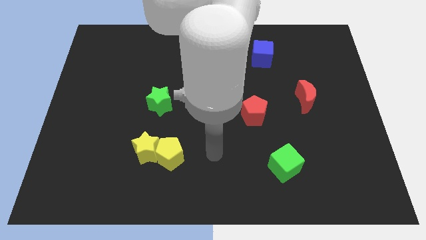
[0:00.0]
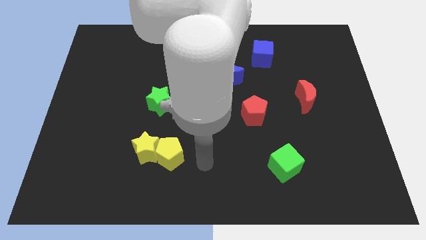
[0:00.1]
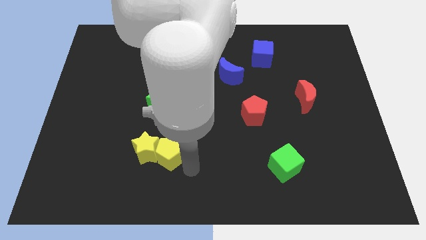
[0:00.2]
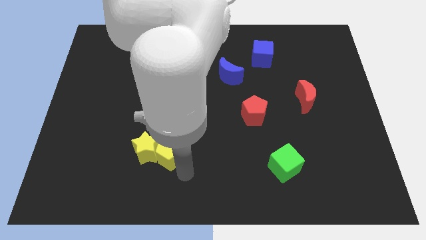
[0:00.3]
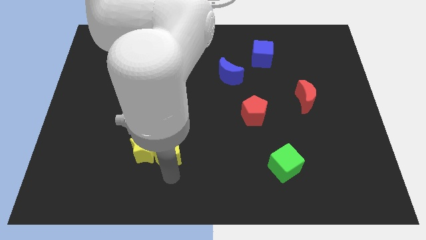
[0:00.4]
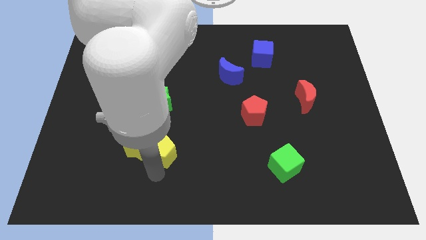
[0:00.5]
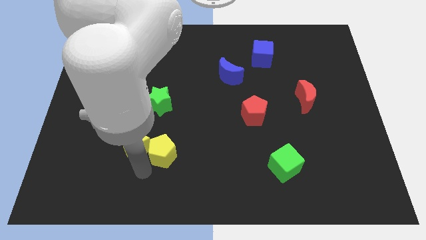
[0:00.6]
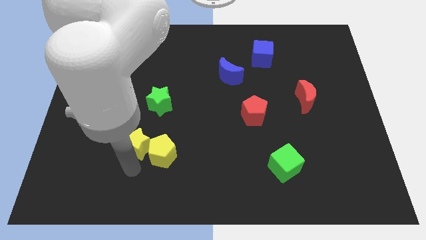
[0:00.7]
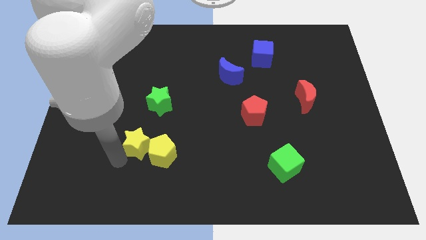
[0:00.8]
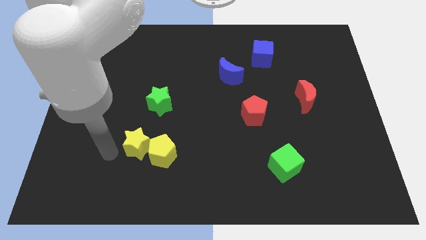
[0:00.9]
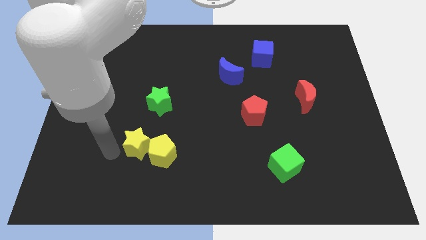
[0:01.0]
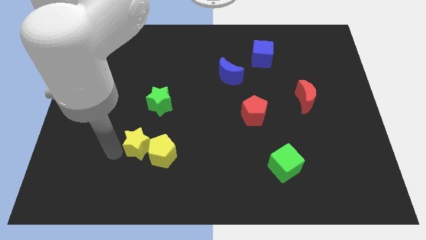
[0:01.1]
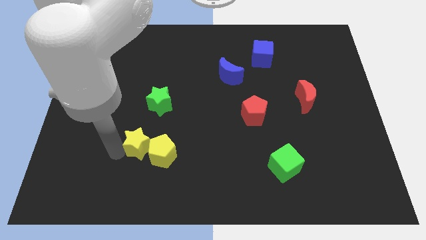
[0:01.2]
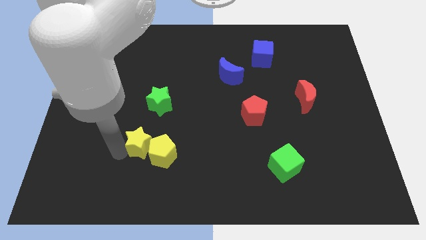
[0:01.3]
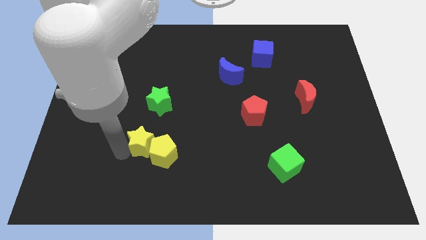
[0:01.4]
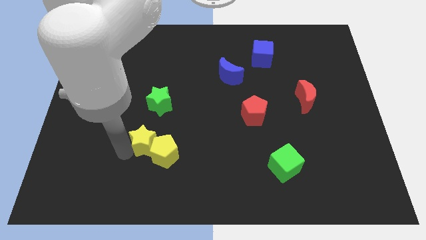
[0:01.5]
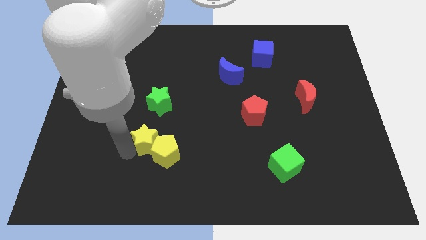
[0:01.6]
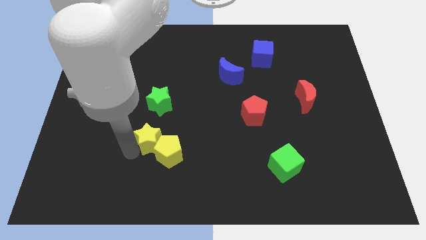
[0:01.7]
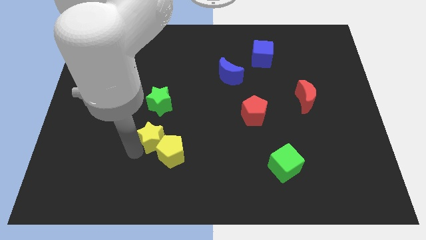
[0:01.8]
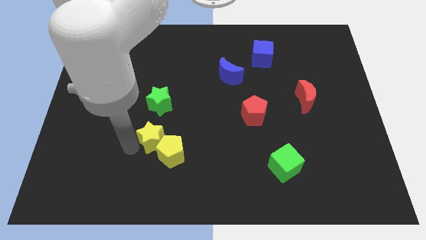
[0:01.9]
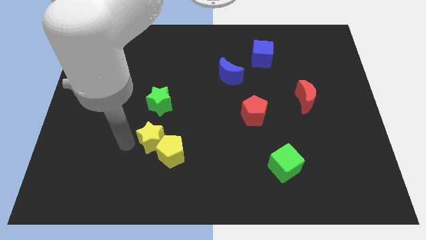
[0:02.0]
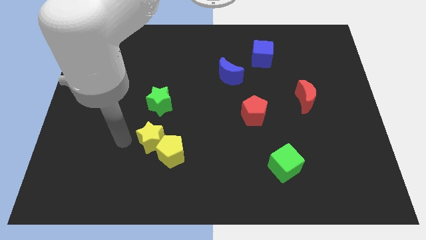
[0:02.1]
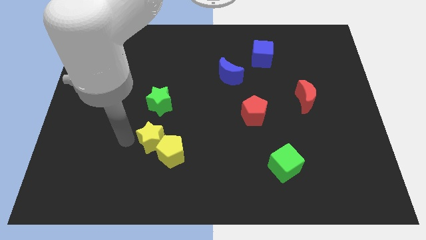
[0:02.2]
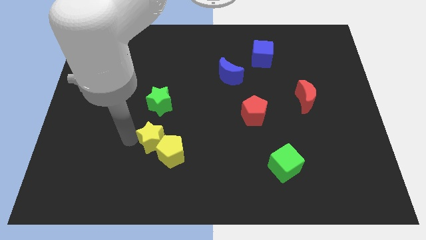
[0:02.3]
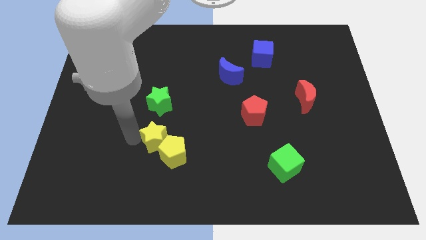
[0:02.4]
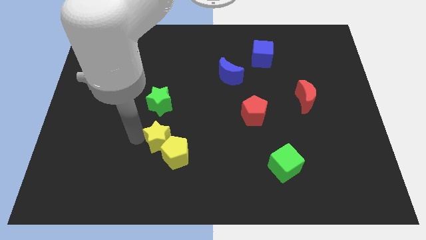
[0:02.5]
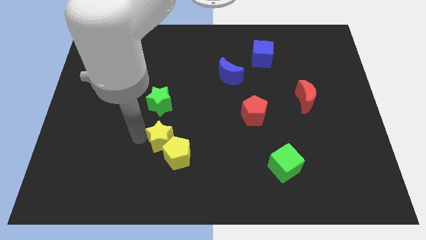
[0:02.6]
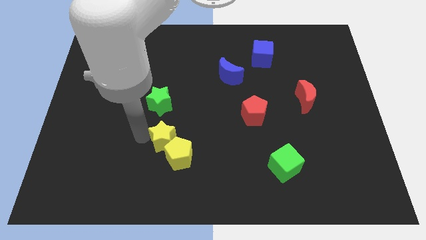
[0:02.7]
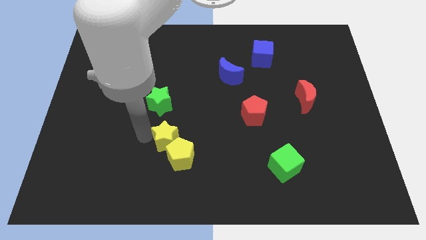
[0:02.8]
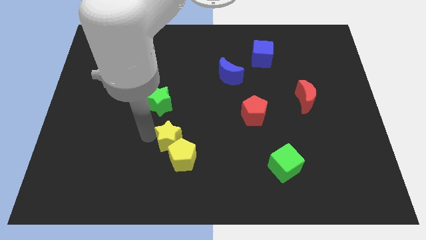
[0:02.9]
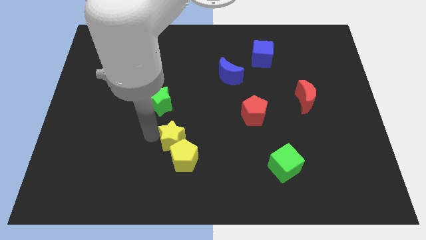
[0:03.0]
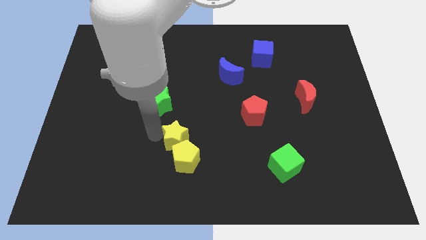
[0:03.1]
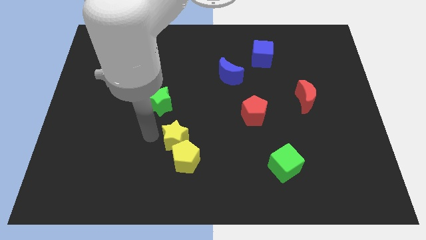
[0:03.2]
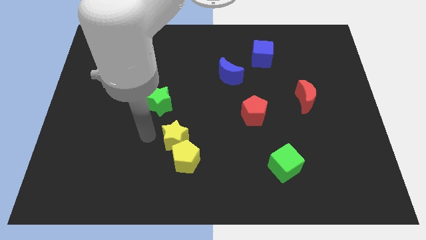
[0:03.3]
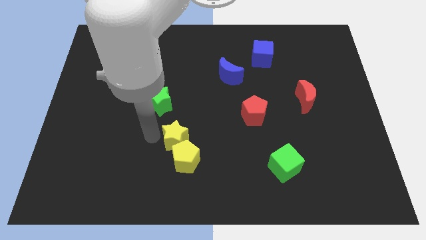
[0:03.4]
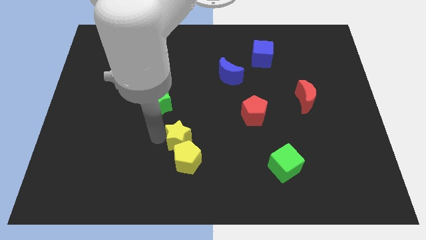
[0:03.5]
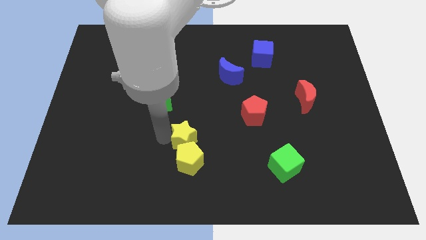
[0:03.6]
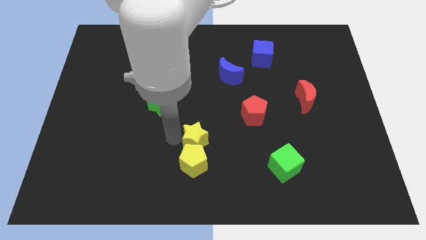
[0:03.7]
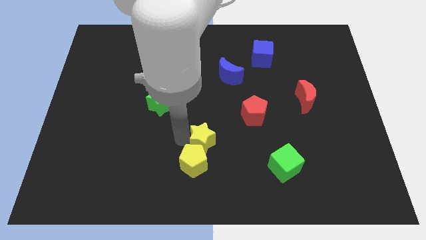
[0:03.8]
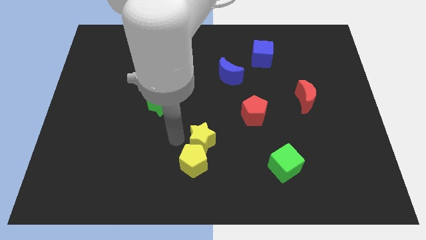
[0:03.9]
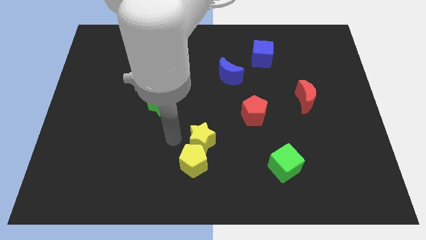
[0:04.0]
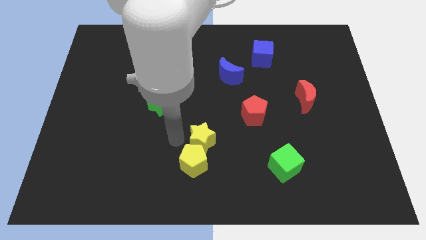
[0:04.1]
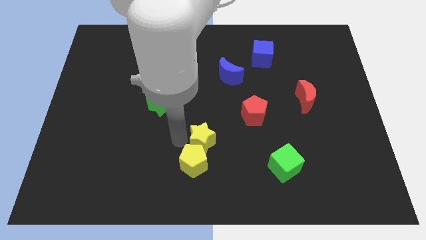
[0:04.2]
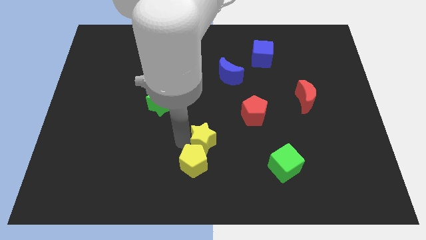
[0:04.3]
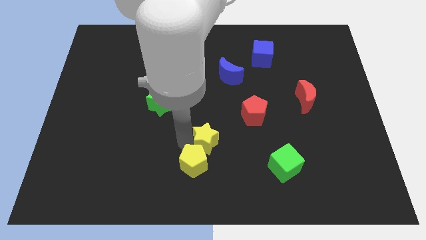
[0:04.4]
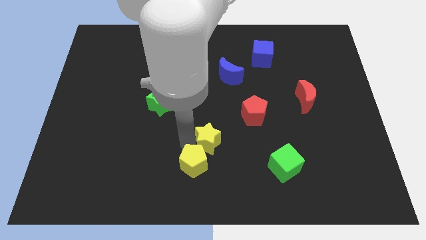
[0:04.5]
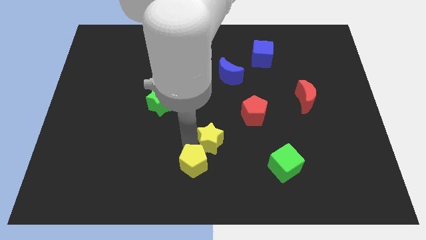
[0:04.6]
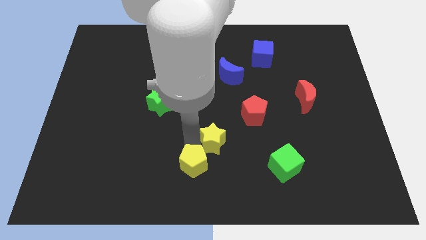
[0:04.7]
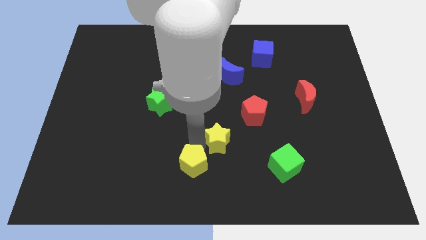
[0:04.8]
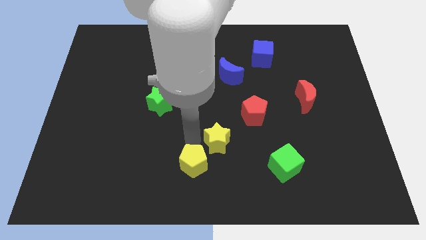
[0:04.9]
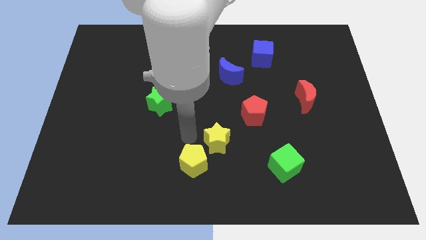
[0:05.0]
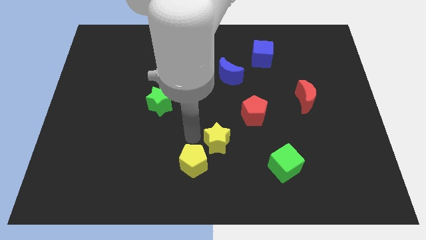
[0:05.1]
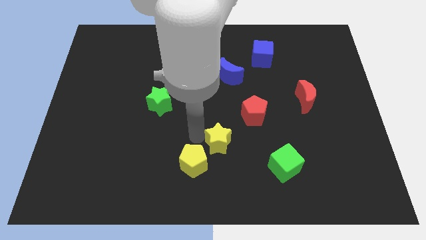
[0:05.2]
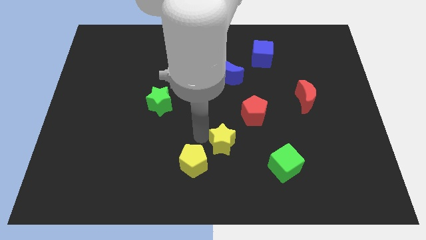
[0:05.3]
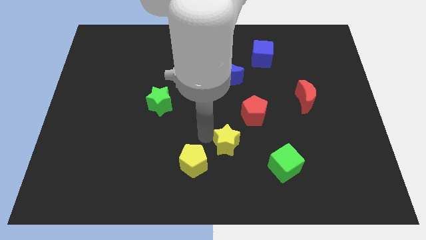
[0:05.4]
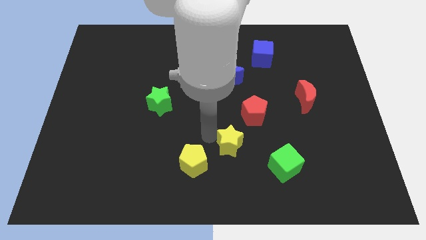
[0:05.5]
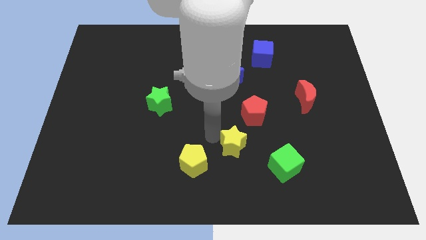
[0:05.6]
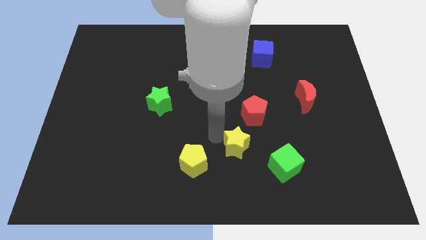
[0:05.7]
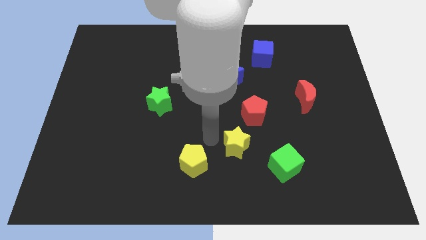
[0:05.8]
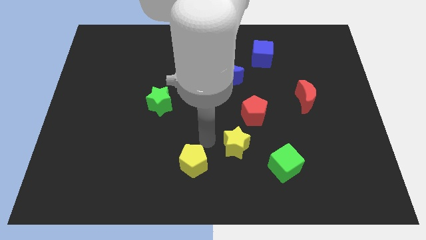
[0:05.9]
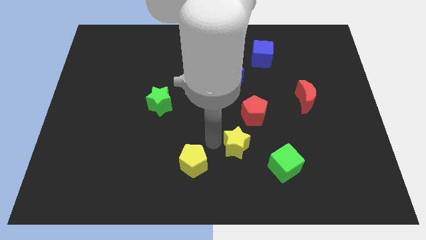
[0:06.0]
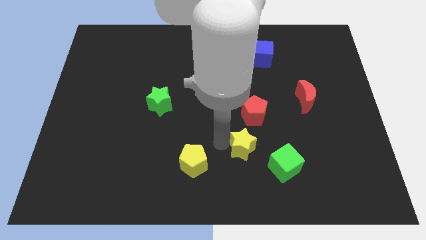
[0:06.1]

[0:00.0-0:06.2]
slide the yellow star right

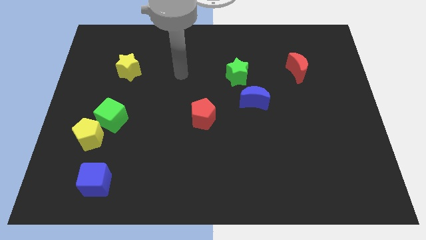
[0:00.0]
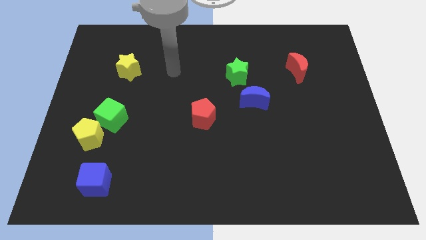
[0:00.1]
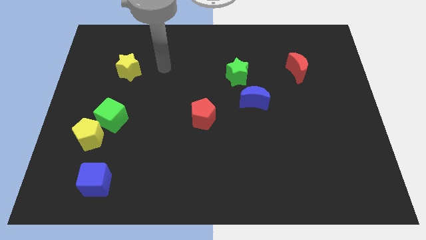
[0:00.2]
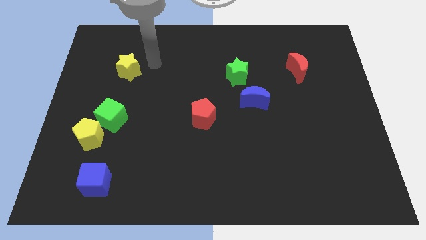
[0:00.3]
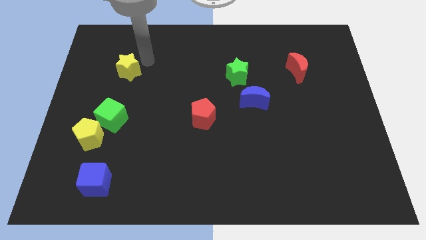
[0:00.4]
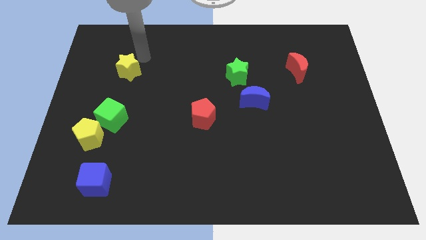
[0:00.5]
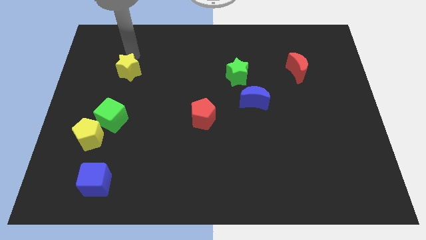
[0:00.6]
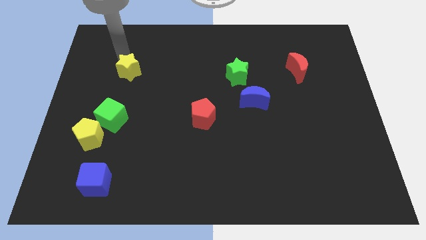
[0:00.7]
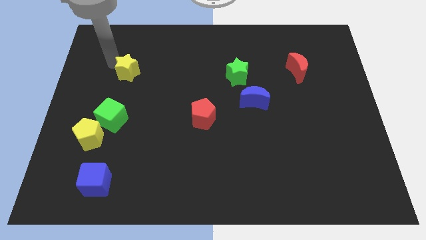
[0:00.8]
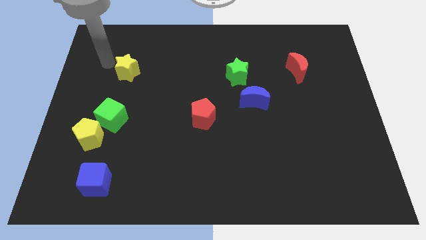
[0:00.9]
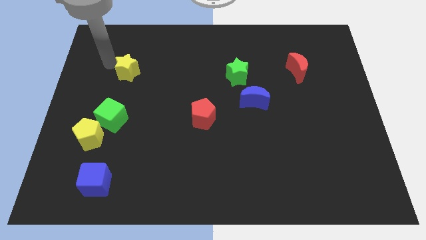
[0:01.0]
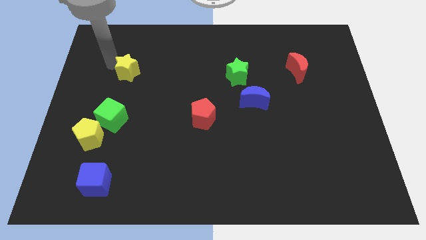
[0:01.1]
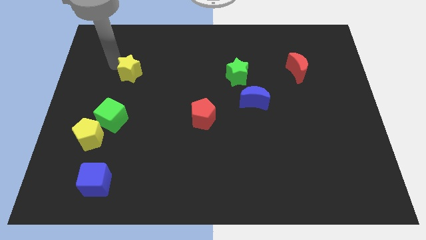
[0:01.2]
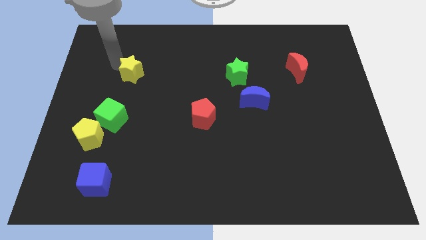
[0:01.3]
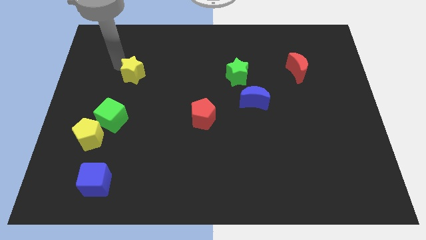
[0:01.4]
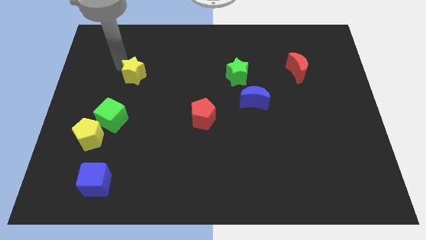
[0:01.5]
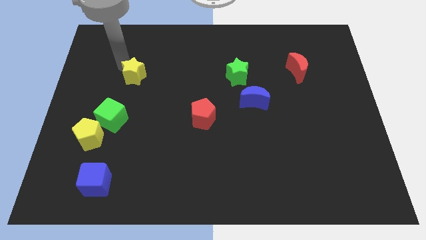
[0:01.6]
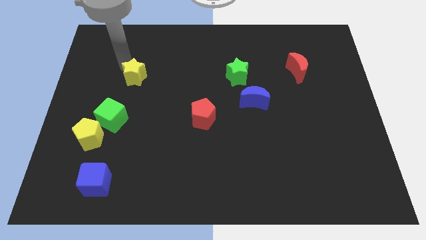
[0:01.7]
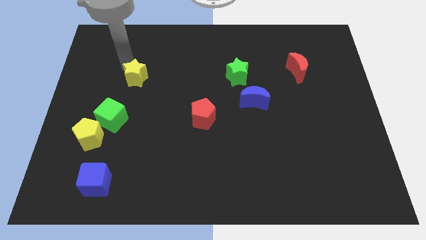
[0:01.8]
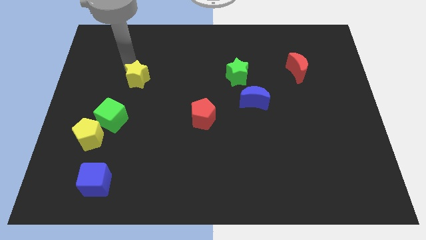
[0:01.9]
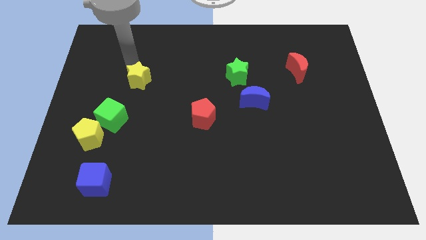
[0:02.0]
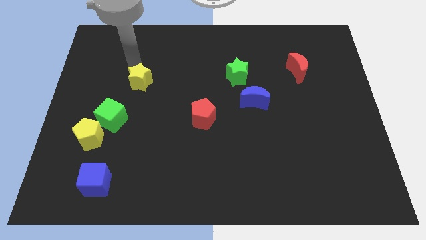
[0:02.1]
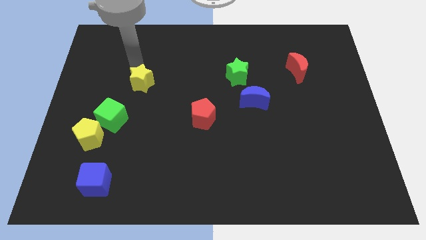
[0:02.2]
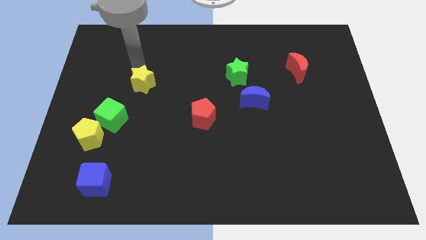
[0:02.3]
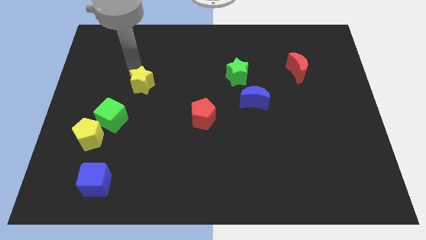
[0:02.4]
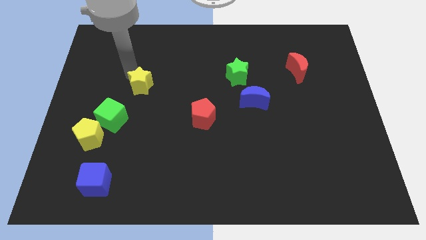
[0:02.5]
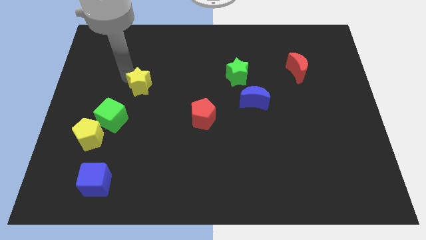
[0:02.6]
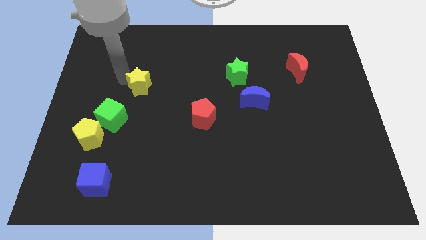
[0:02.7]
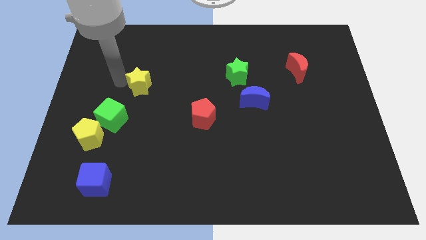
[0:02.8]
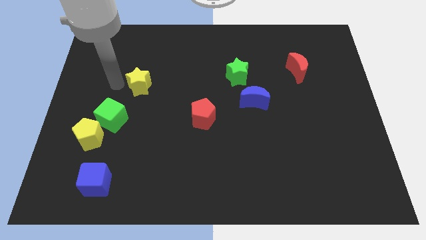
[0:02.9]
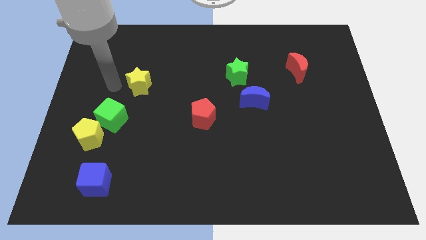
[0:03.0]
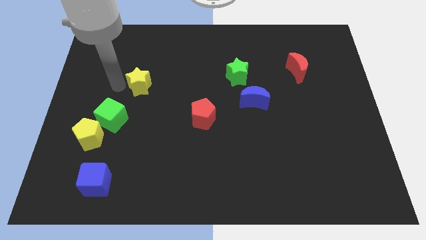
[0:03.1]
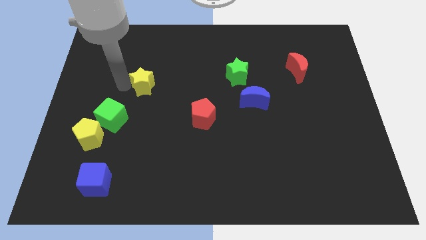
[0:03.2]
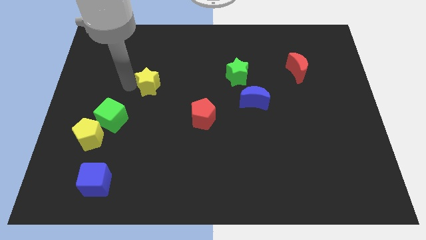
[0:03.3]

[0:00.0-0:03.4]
slightly push the yellow star downwards and to the right diagonally
